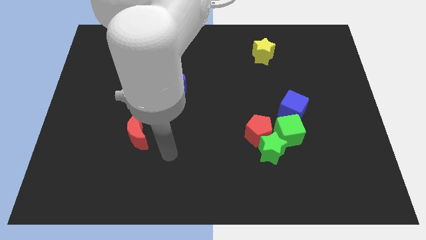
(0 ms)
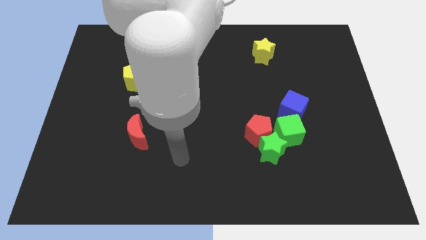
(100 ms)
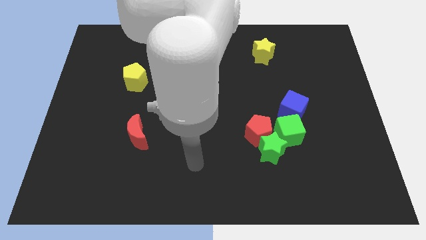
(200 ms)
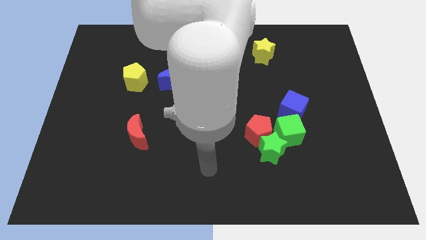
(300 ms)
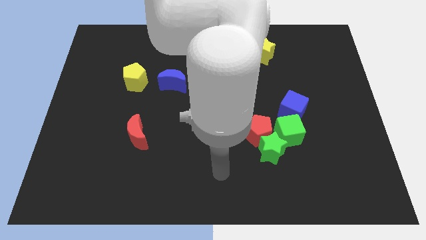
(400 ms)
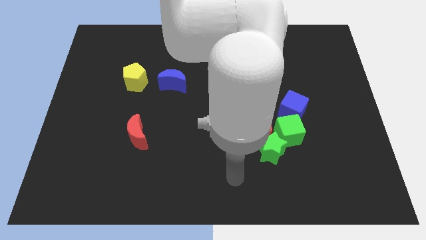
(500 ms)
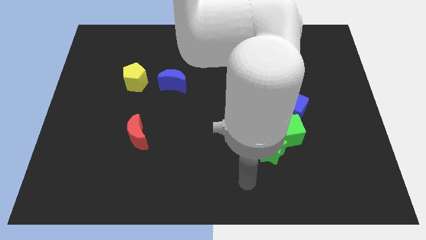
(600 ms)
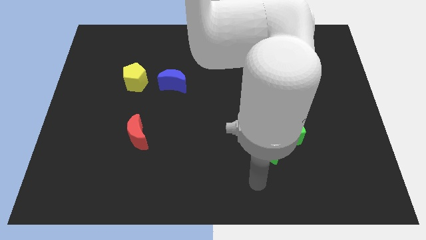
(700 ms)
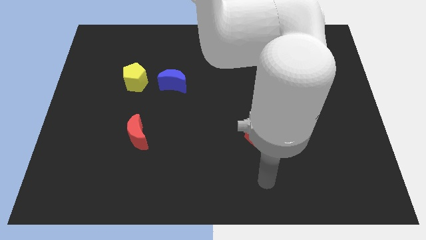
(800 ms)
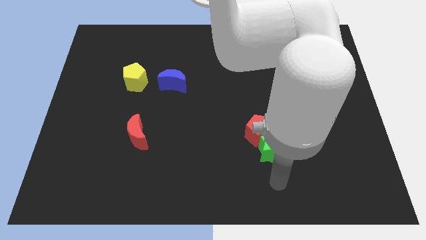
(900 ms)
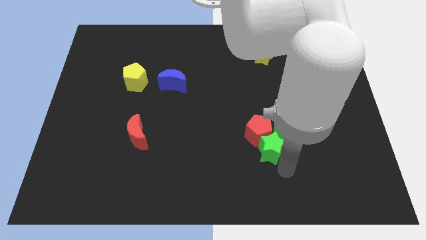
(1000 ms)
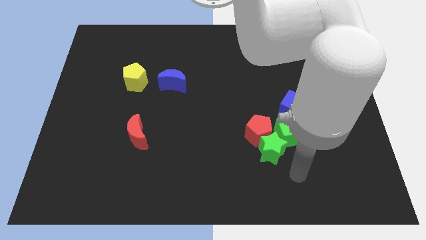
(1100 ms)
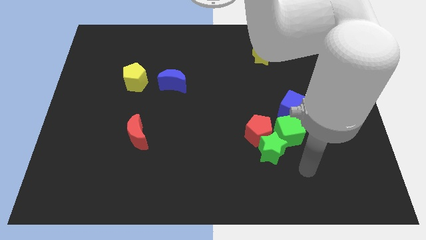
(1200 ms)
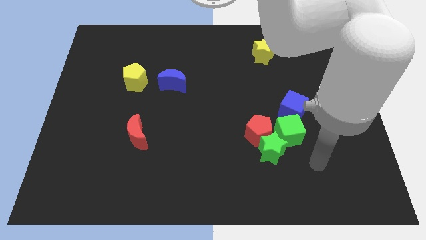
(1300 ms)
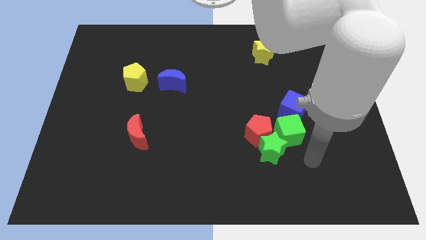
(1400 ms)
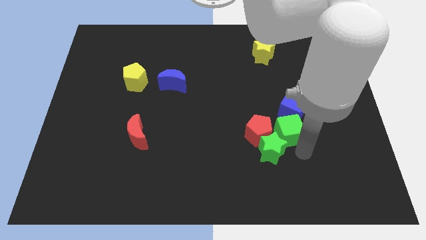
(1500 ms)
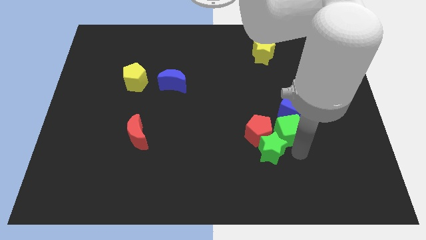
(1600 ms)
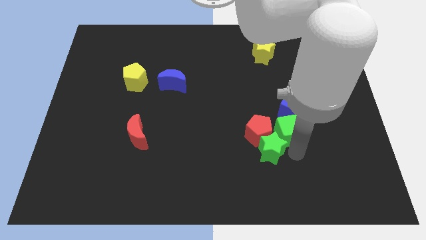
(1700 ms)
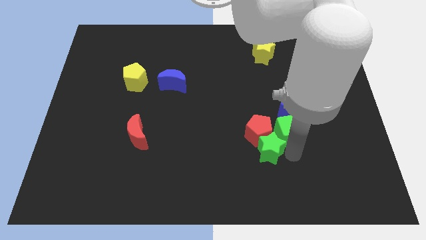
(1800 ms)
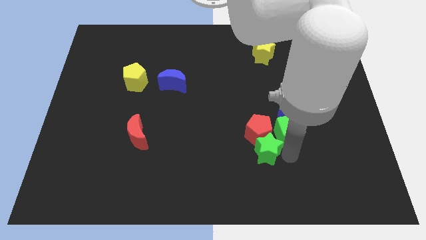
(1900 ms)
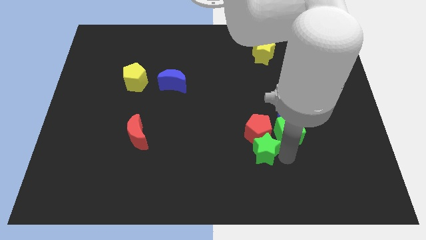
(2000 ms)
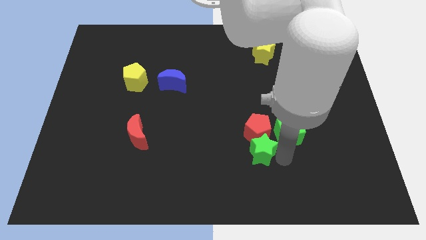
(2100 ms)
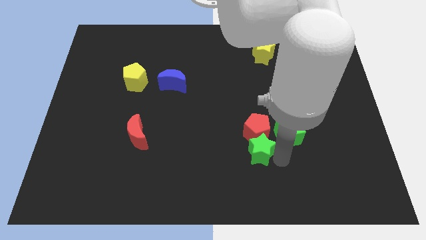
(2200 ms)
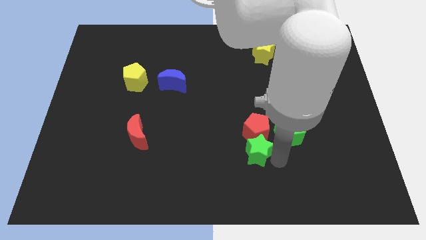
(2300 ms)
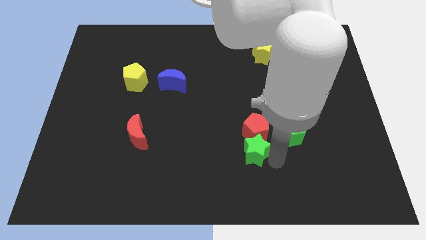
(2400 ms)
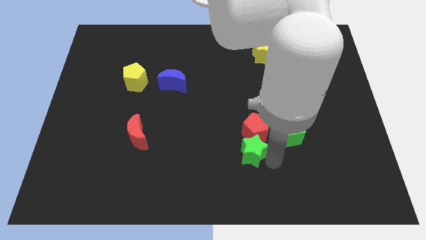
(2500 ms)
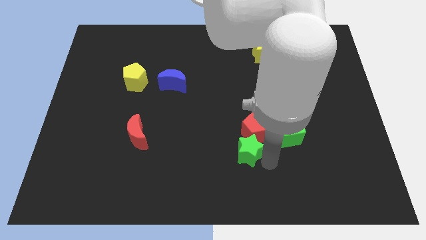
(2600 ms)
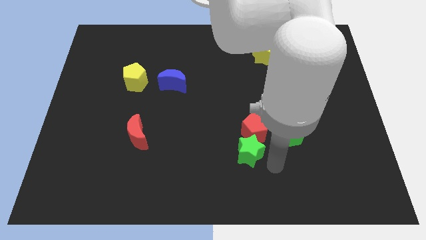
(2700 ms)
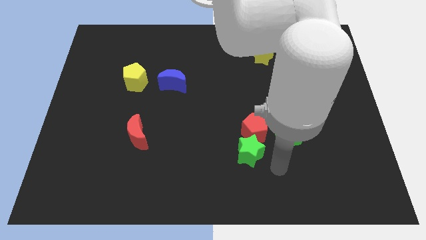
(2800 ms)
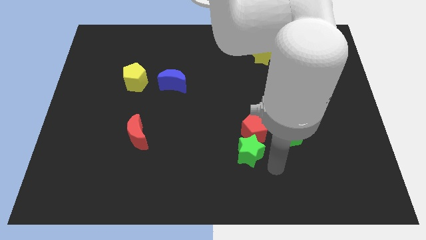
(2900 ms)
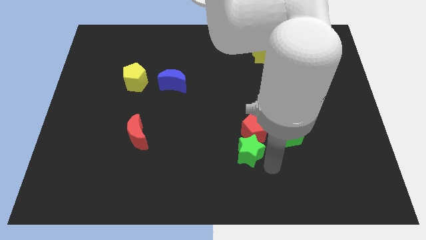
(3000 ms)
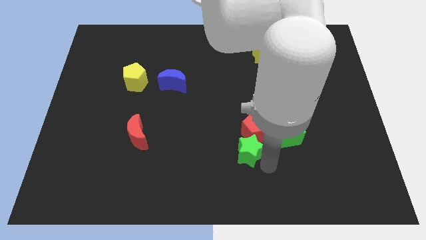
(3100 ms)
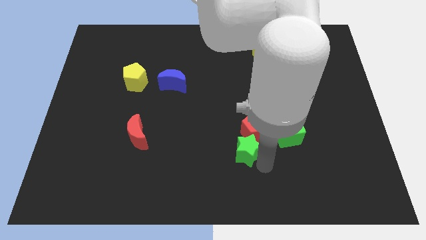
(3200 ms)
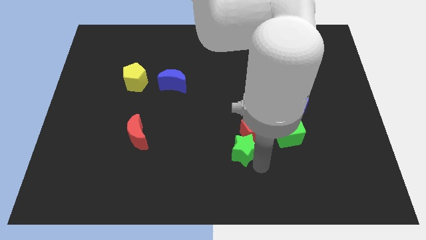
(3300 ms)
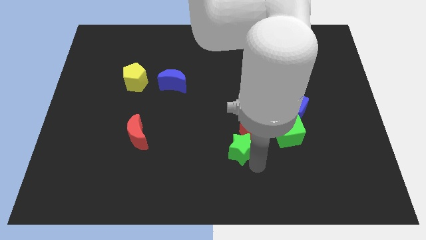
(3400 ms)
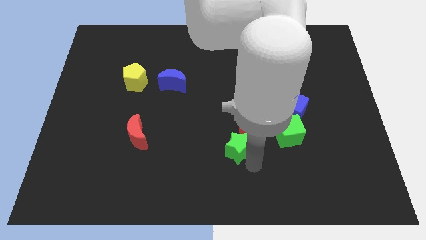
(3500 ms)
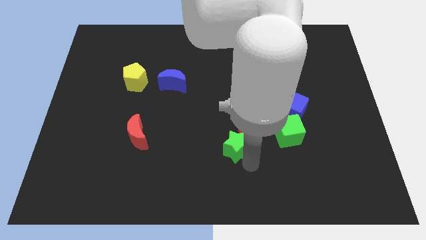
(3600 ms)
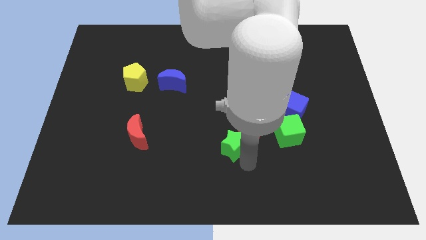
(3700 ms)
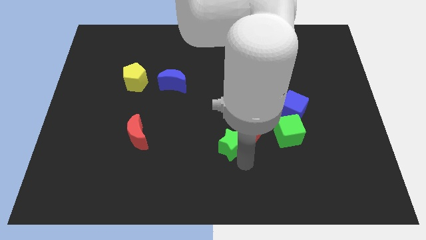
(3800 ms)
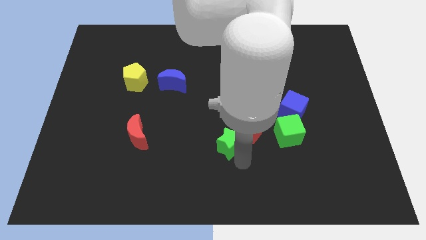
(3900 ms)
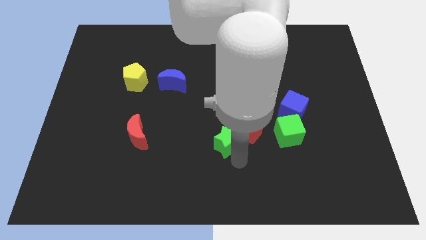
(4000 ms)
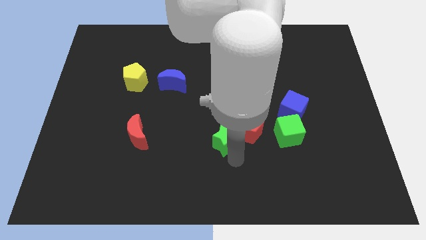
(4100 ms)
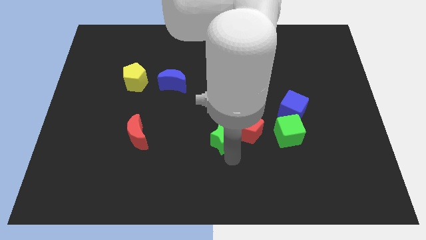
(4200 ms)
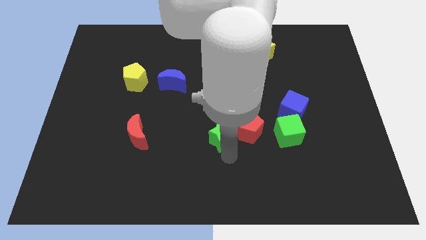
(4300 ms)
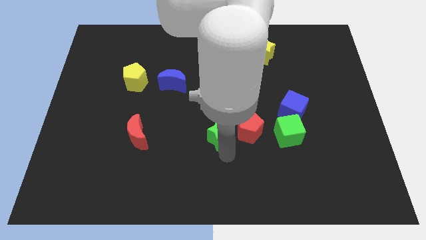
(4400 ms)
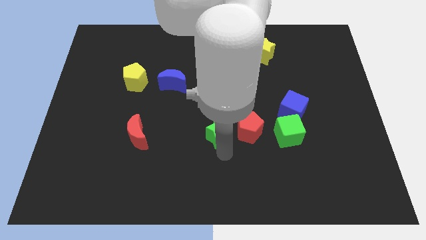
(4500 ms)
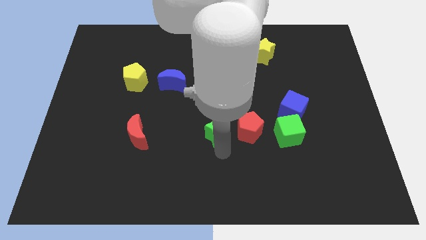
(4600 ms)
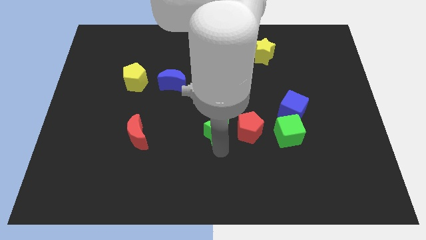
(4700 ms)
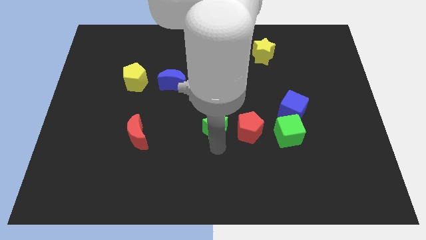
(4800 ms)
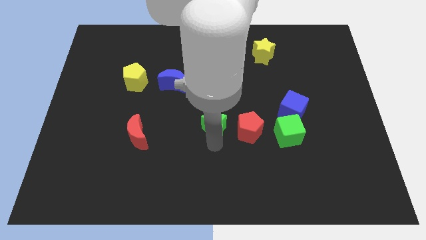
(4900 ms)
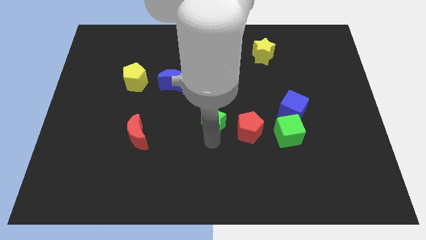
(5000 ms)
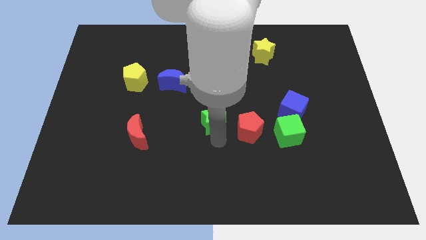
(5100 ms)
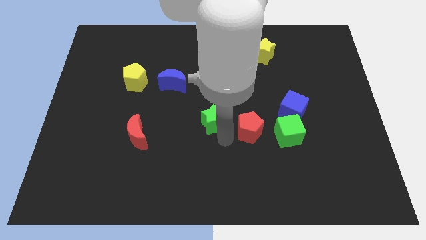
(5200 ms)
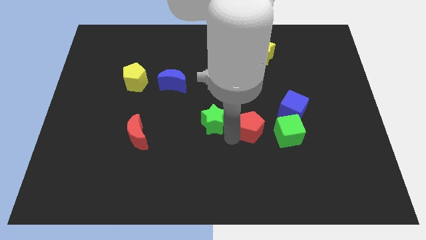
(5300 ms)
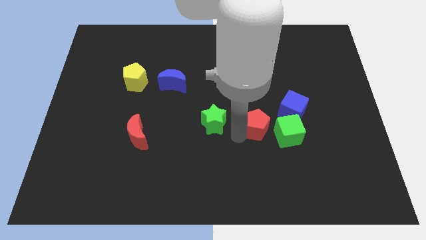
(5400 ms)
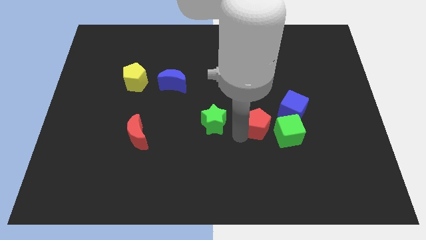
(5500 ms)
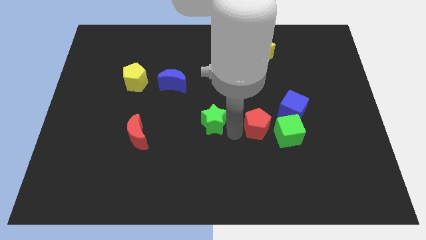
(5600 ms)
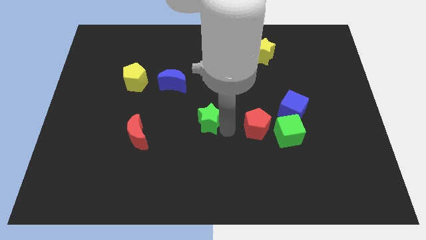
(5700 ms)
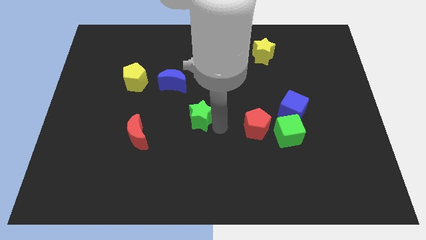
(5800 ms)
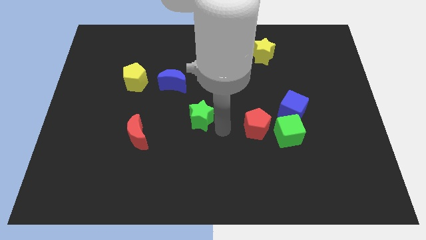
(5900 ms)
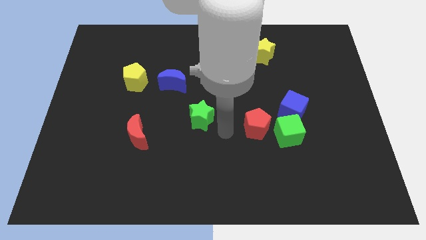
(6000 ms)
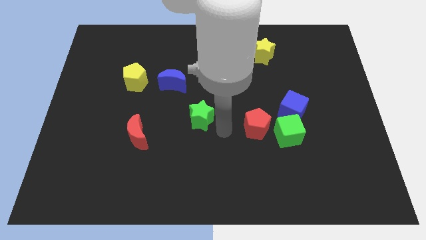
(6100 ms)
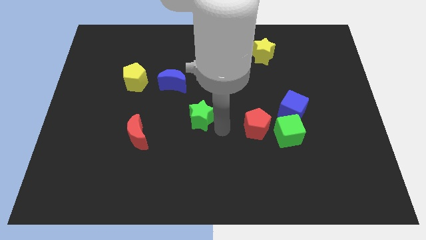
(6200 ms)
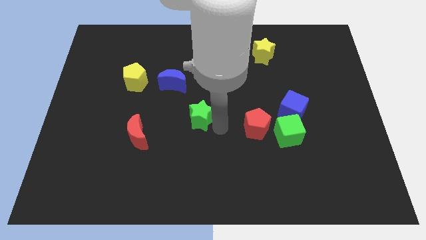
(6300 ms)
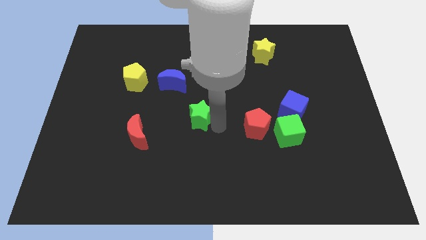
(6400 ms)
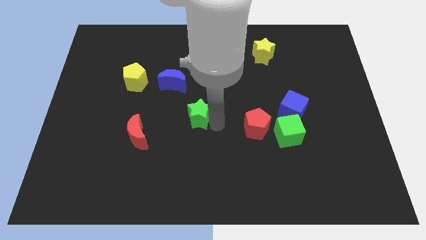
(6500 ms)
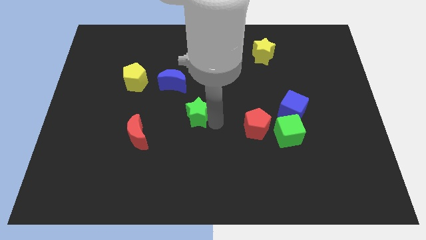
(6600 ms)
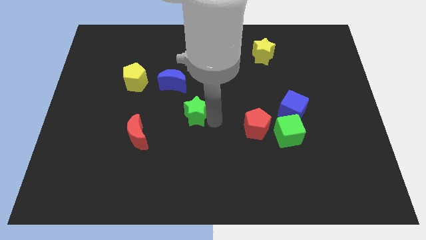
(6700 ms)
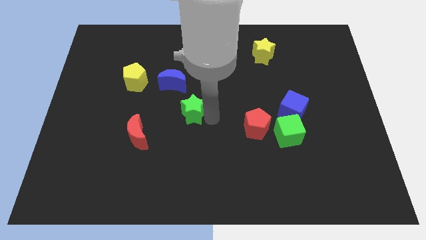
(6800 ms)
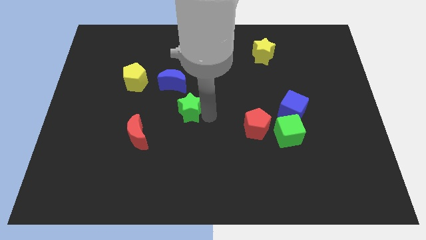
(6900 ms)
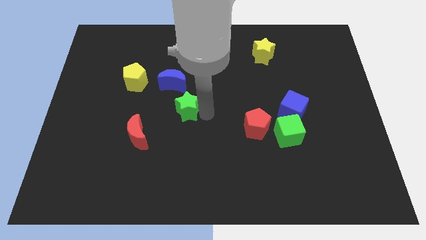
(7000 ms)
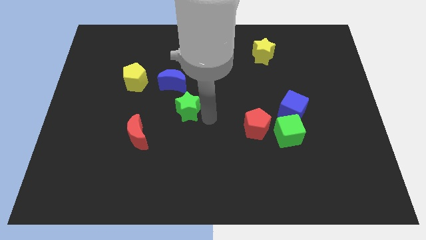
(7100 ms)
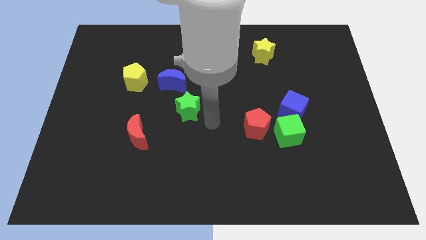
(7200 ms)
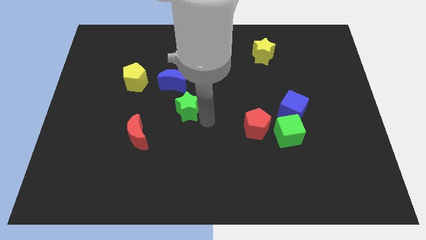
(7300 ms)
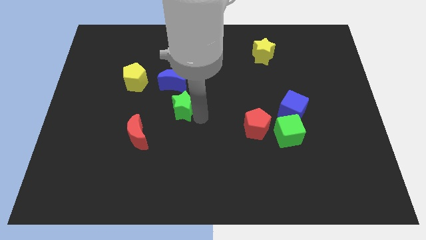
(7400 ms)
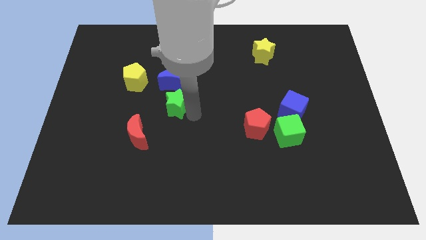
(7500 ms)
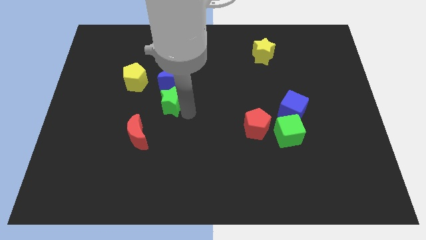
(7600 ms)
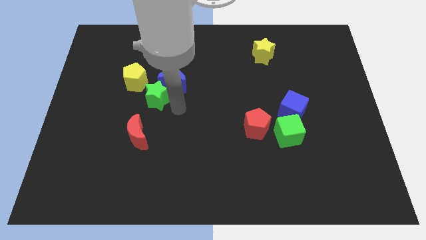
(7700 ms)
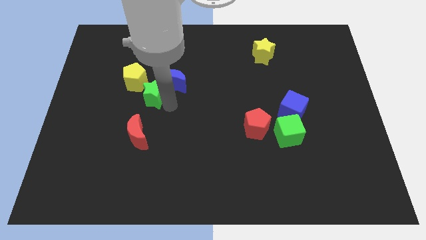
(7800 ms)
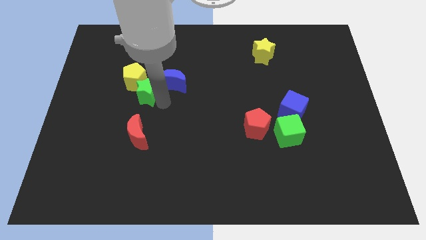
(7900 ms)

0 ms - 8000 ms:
push the green star close to the yellow pentagon
